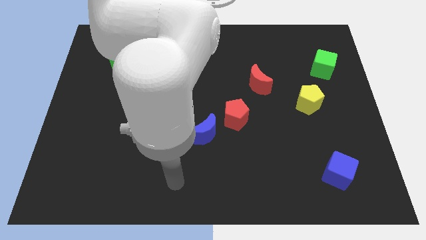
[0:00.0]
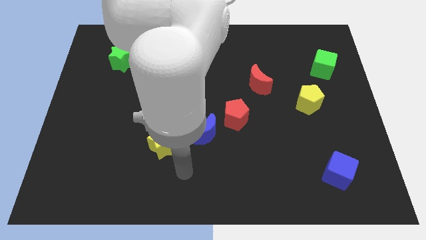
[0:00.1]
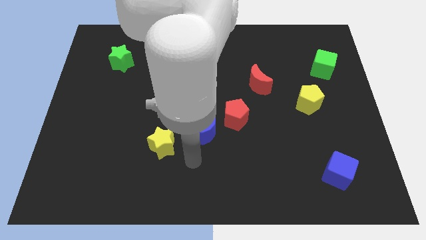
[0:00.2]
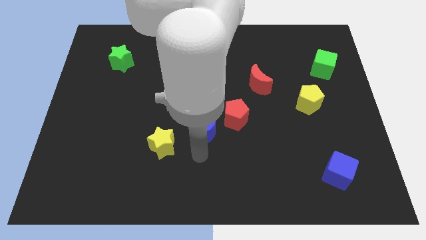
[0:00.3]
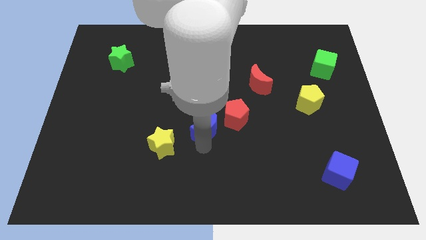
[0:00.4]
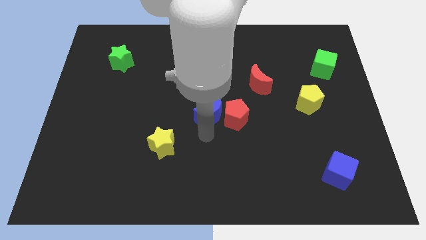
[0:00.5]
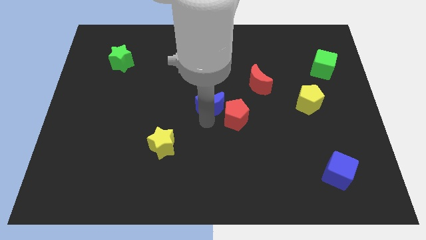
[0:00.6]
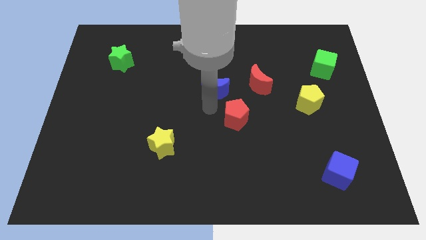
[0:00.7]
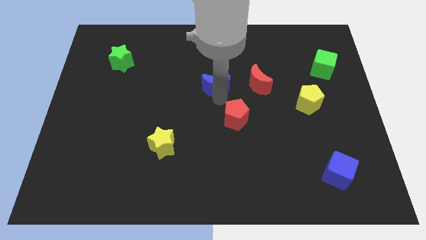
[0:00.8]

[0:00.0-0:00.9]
pull the red pentagon apart from the blue moon

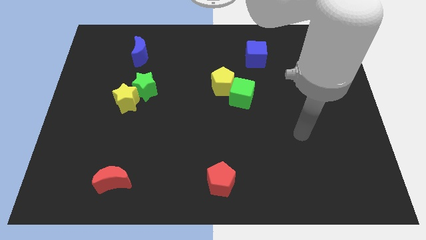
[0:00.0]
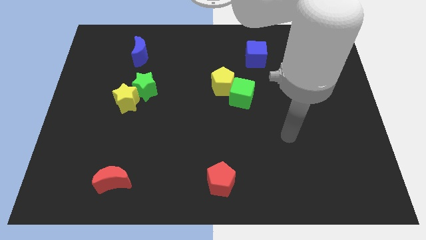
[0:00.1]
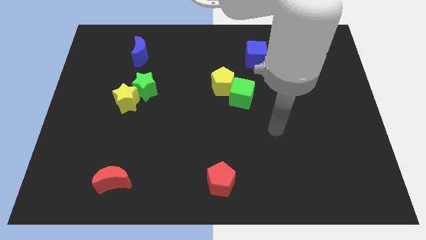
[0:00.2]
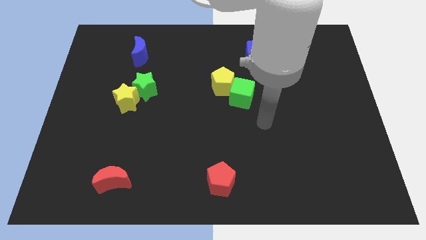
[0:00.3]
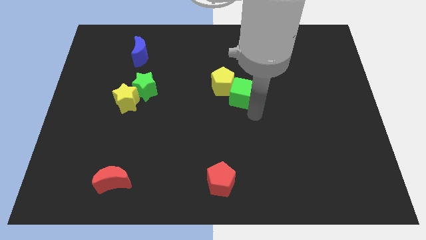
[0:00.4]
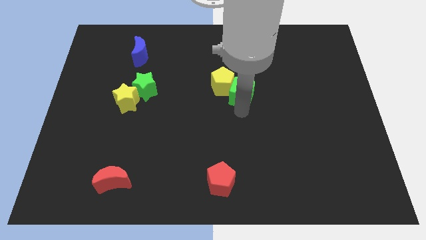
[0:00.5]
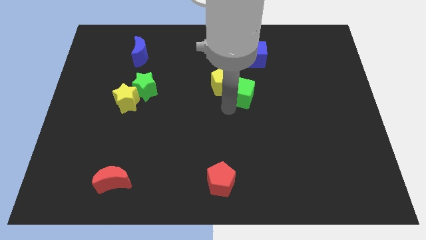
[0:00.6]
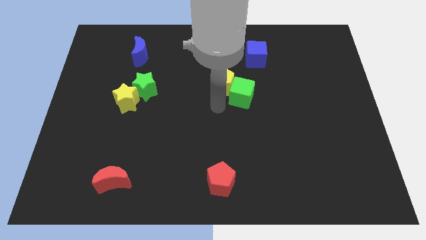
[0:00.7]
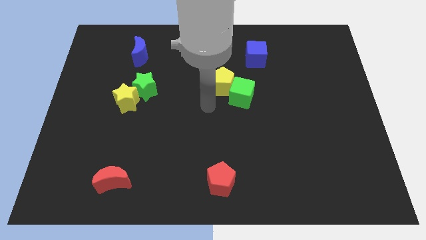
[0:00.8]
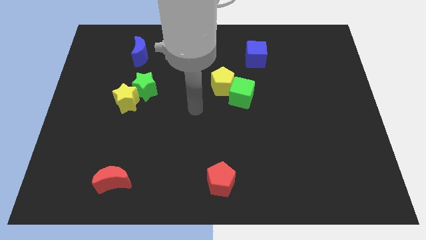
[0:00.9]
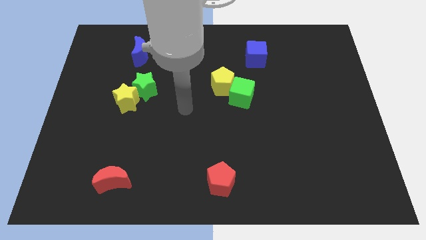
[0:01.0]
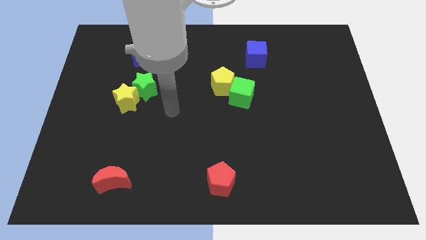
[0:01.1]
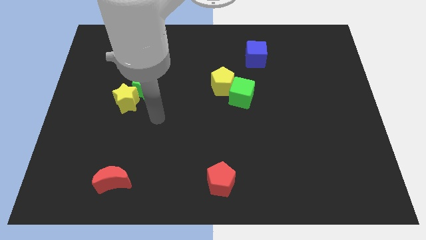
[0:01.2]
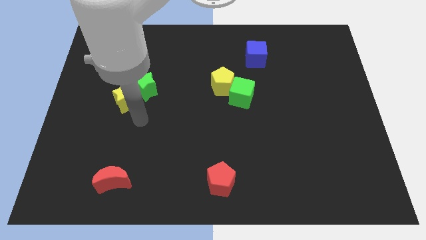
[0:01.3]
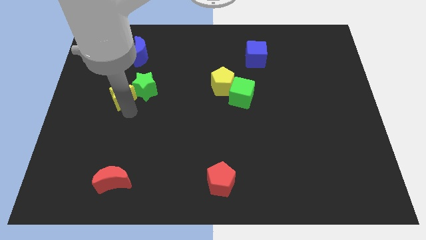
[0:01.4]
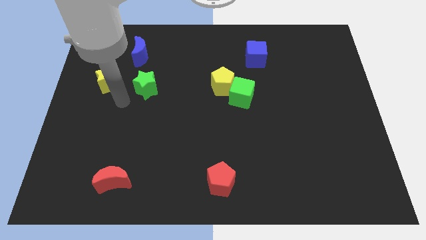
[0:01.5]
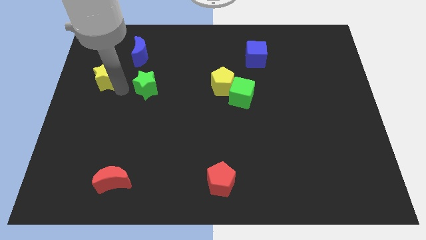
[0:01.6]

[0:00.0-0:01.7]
move the green star away from the yellow star

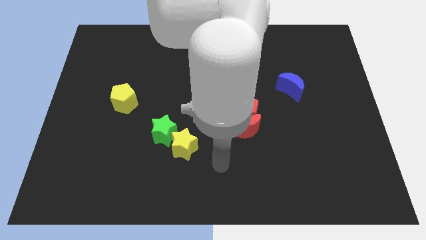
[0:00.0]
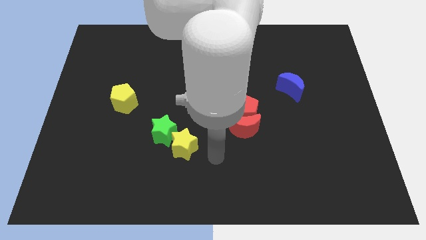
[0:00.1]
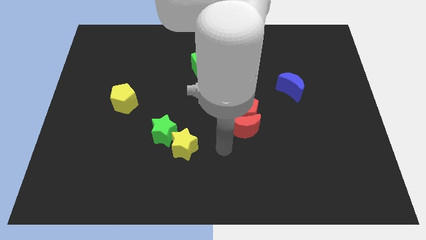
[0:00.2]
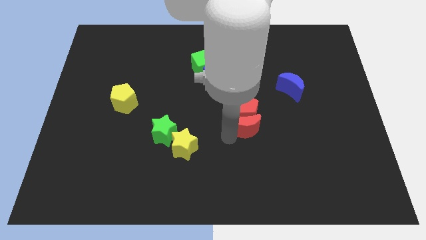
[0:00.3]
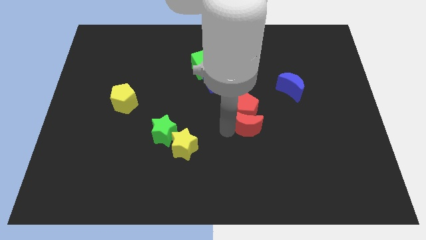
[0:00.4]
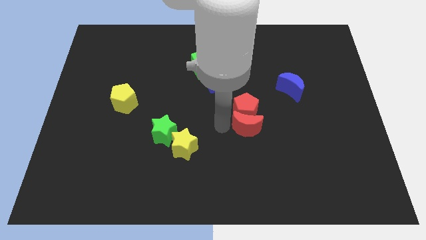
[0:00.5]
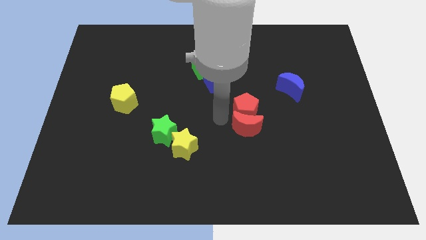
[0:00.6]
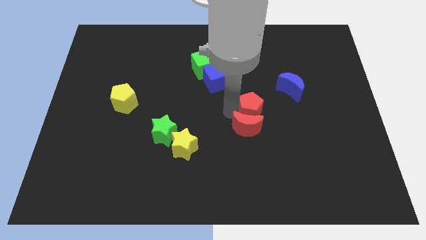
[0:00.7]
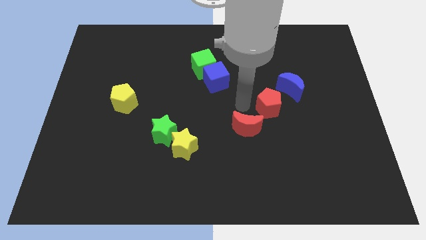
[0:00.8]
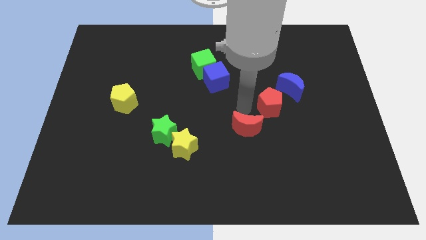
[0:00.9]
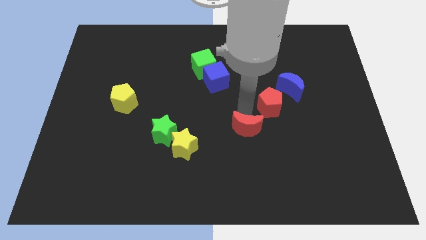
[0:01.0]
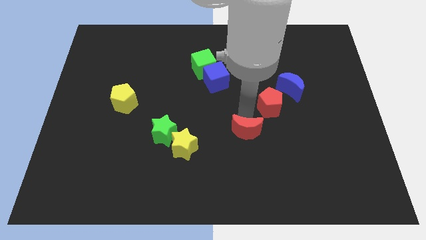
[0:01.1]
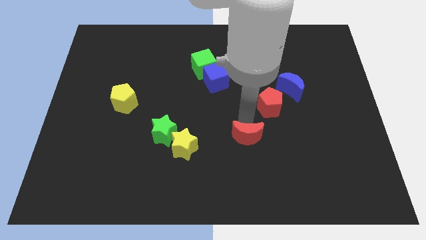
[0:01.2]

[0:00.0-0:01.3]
pull the red moon apart from the red pentagon

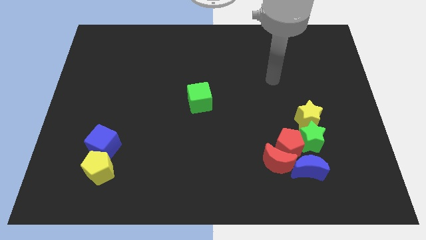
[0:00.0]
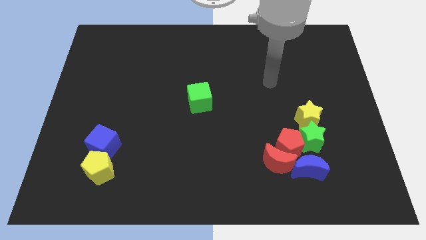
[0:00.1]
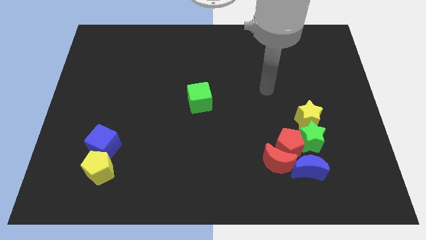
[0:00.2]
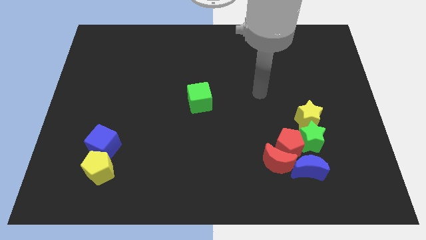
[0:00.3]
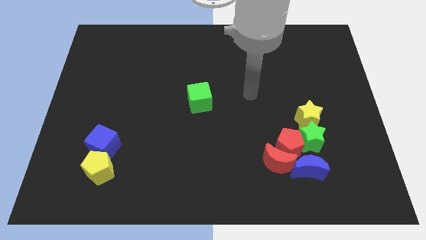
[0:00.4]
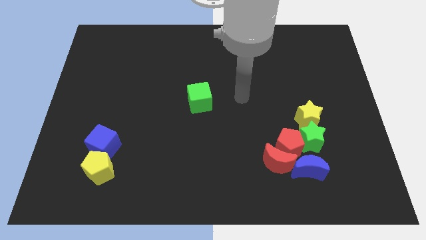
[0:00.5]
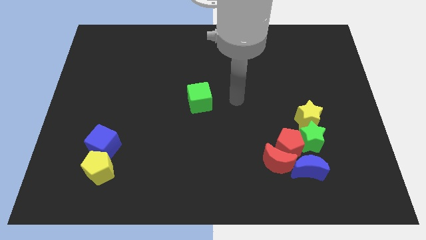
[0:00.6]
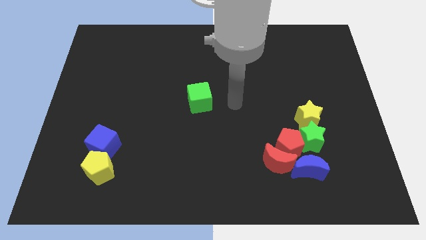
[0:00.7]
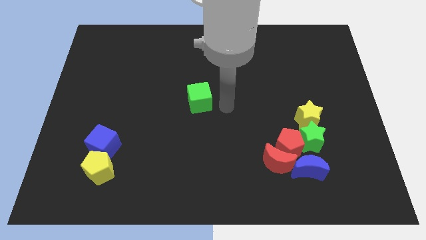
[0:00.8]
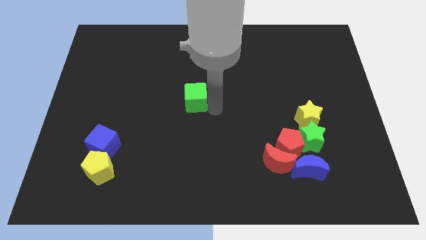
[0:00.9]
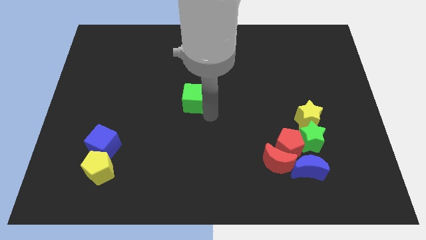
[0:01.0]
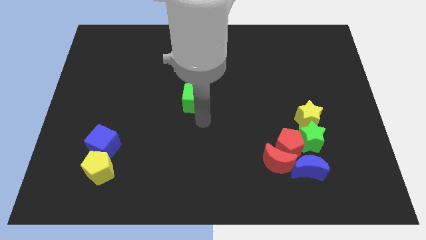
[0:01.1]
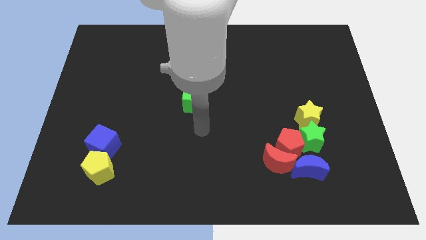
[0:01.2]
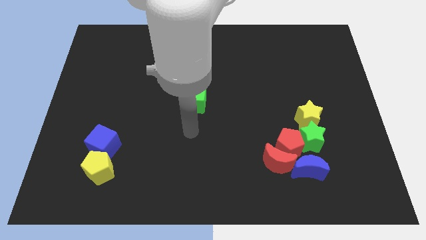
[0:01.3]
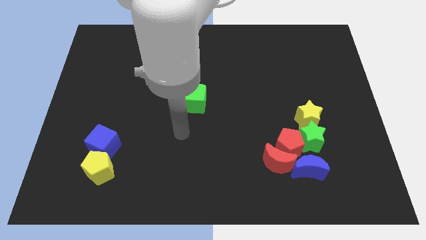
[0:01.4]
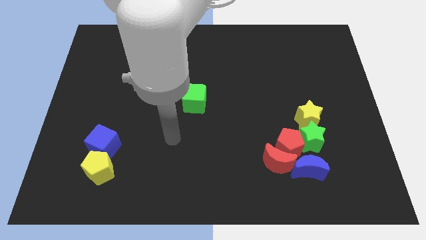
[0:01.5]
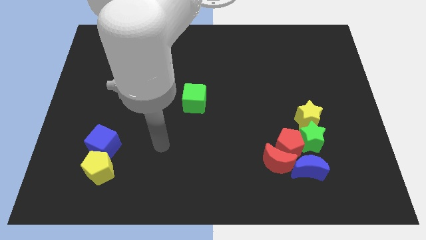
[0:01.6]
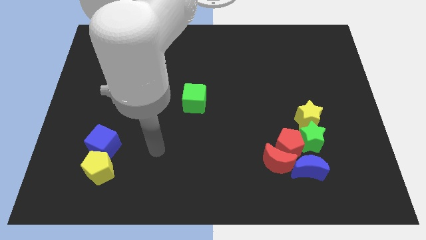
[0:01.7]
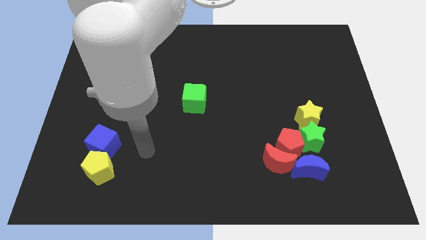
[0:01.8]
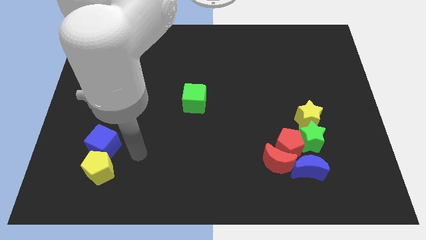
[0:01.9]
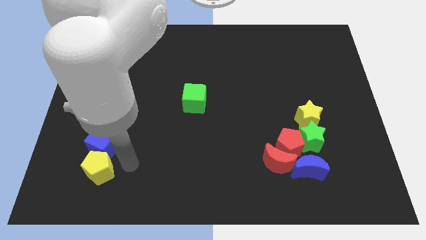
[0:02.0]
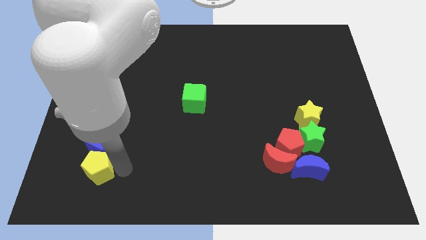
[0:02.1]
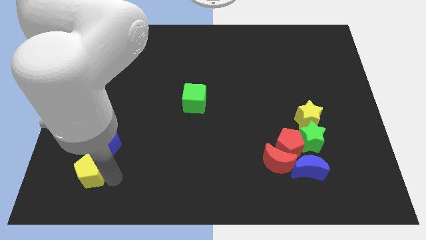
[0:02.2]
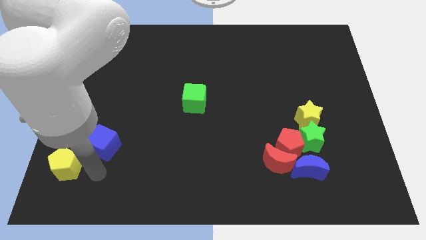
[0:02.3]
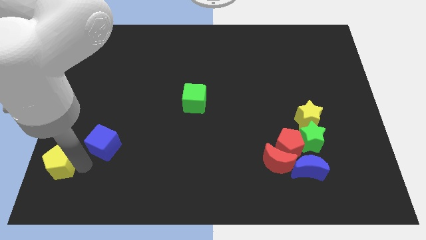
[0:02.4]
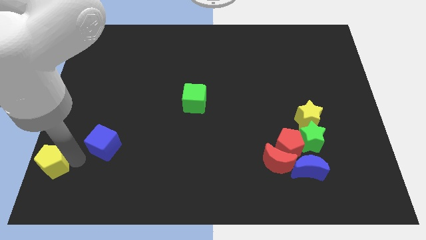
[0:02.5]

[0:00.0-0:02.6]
pull the blue cube apart from the yellow pentagon

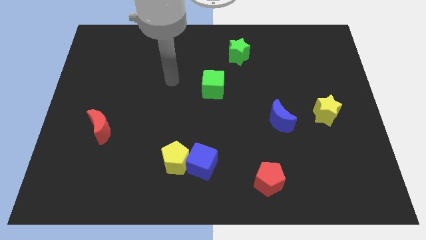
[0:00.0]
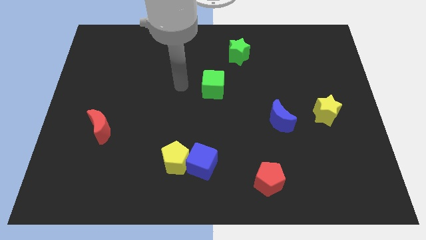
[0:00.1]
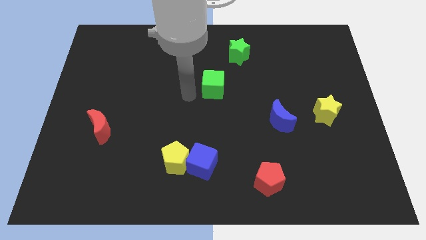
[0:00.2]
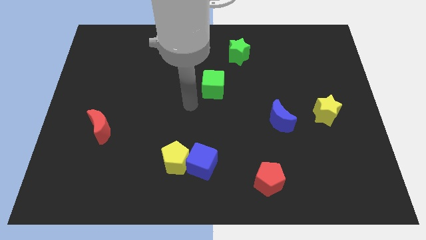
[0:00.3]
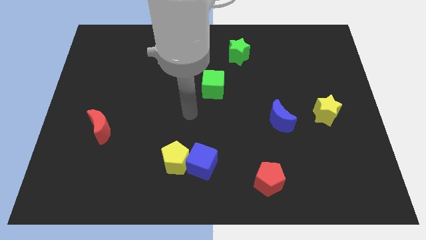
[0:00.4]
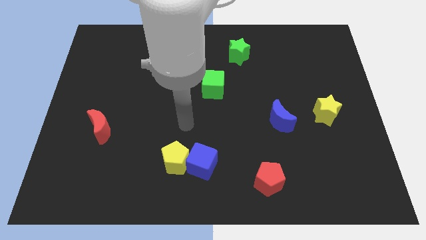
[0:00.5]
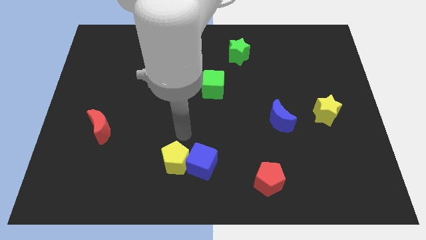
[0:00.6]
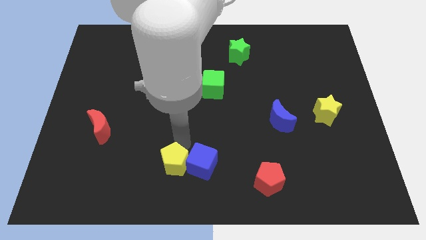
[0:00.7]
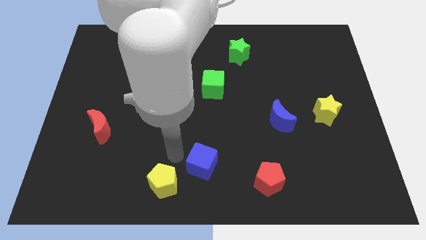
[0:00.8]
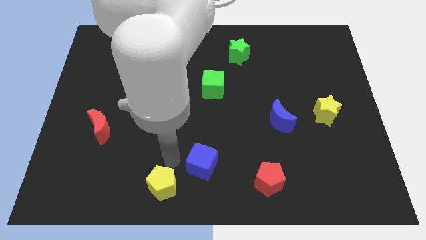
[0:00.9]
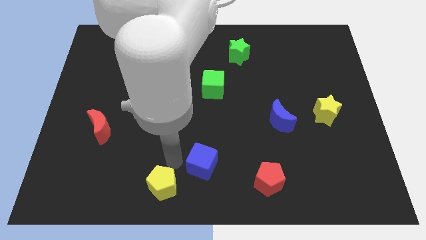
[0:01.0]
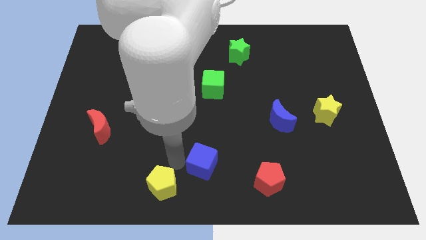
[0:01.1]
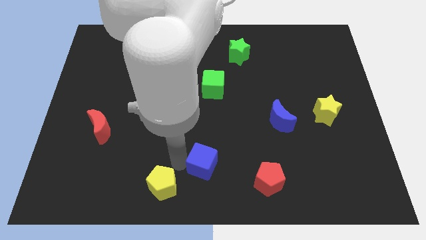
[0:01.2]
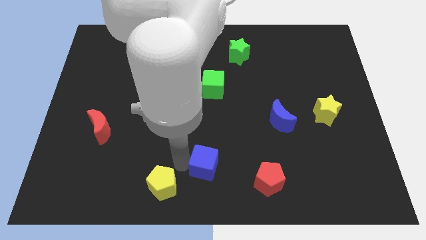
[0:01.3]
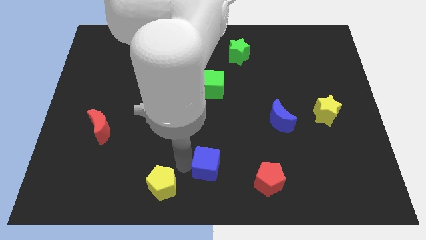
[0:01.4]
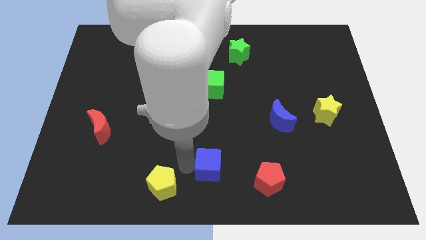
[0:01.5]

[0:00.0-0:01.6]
separate the blue cube from the yellow pentagon

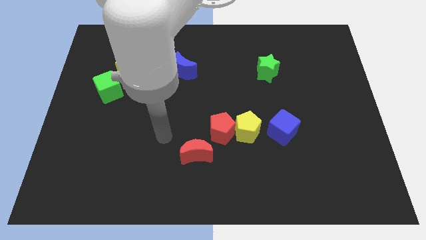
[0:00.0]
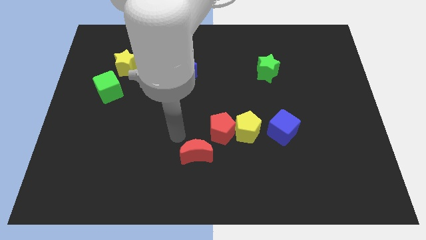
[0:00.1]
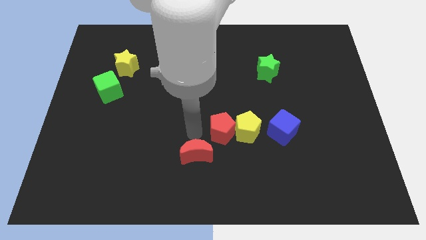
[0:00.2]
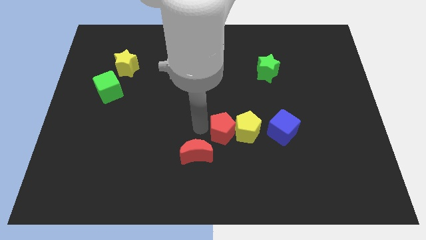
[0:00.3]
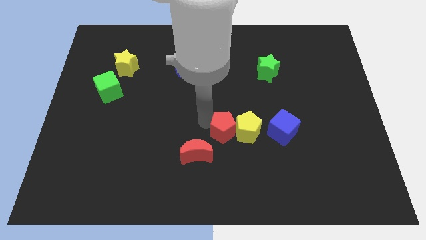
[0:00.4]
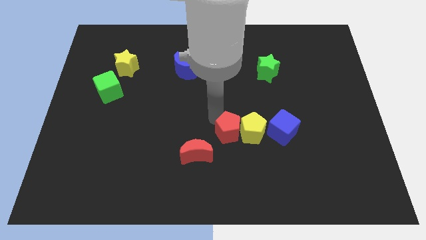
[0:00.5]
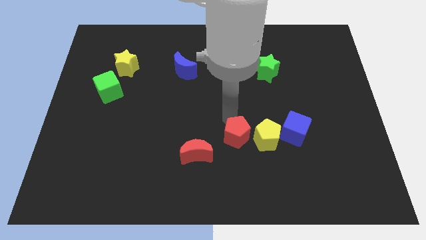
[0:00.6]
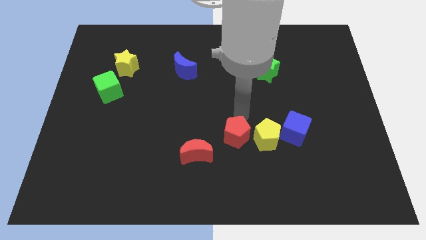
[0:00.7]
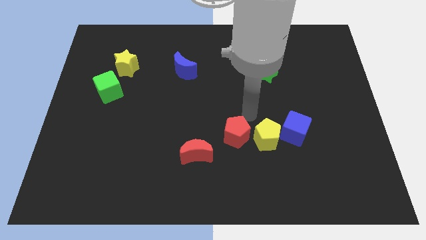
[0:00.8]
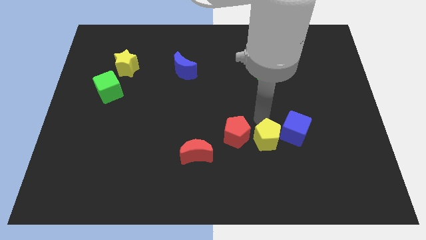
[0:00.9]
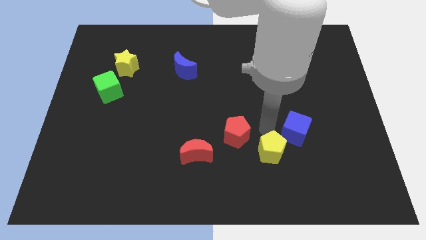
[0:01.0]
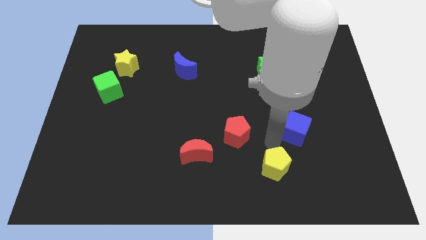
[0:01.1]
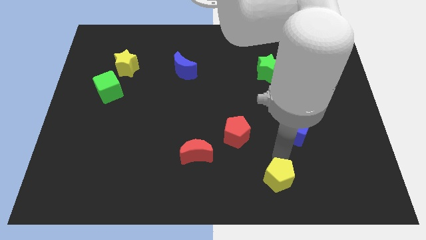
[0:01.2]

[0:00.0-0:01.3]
separate the yellow pentagon from the red pentagon and blue cube
